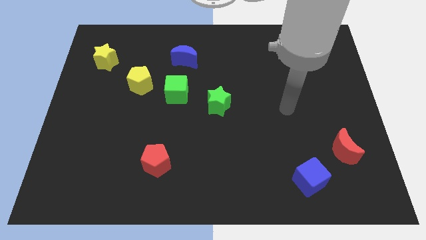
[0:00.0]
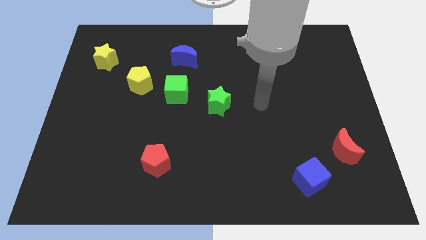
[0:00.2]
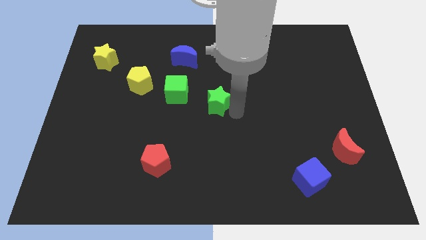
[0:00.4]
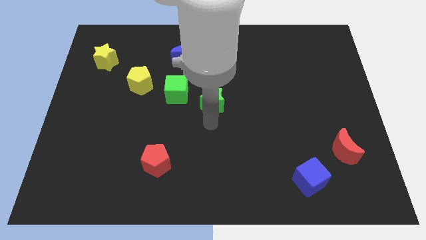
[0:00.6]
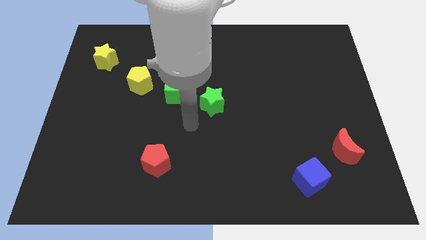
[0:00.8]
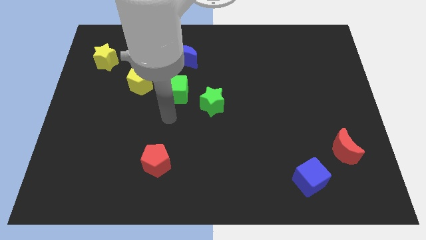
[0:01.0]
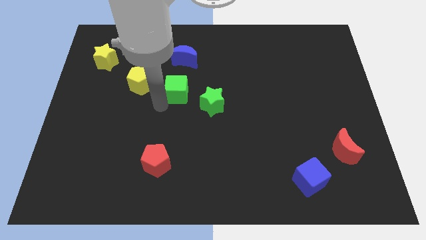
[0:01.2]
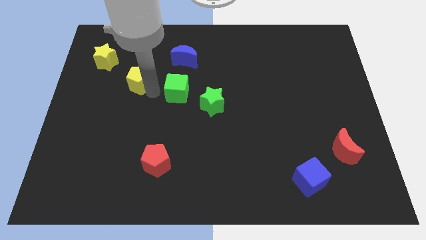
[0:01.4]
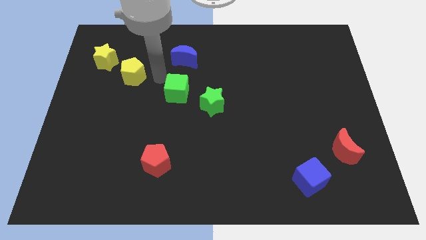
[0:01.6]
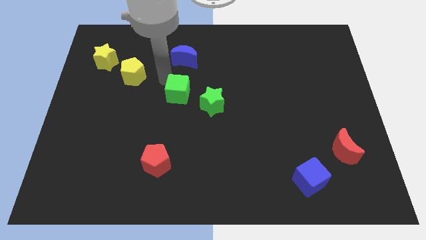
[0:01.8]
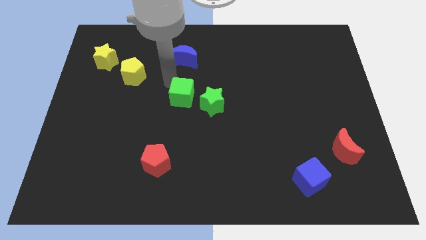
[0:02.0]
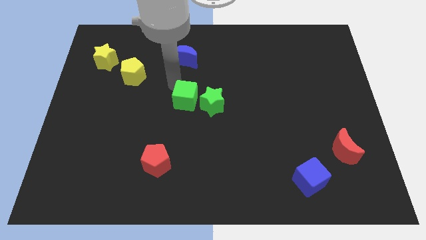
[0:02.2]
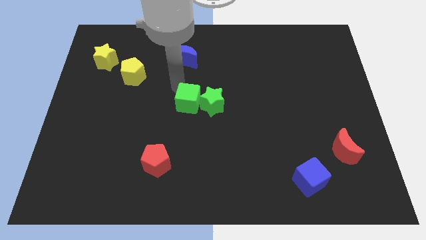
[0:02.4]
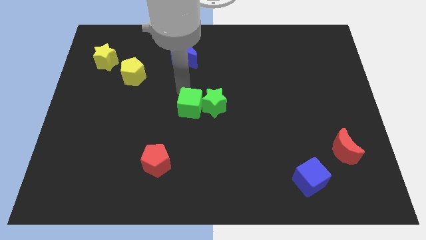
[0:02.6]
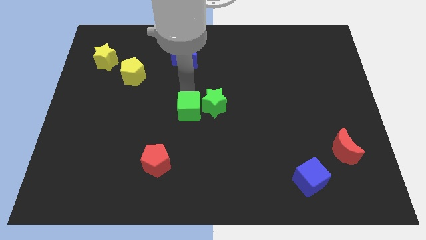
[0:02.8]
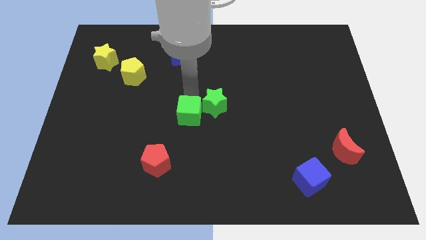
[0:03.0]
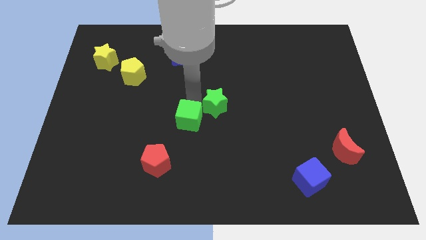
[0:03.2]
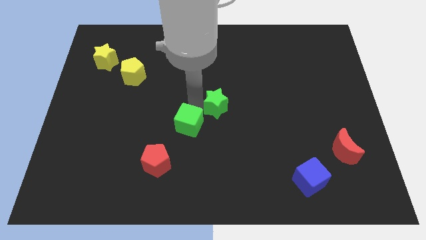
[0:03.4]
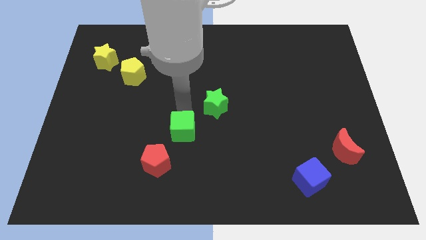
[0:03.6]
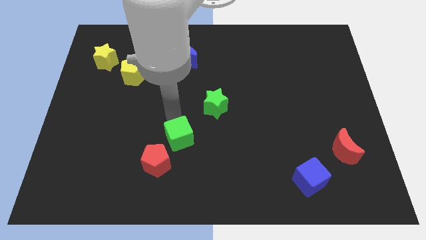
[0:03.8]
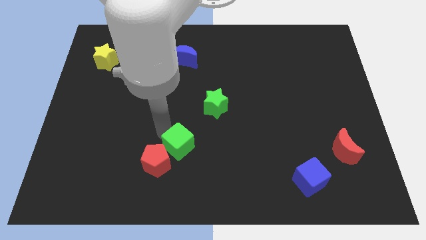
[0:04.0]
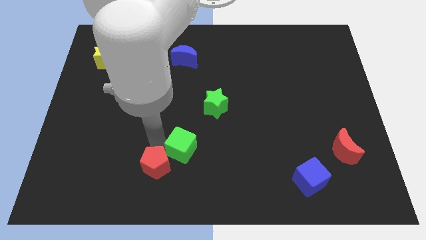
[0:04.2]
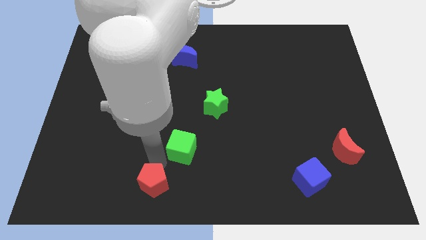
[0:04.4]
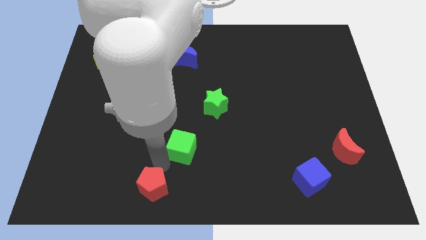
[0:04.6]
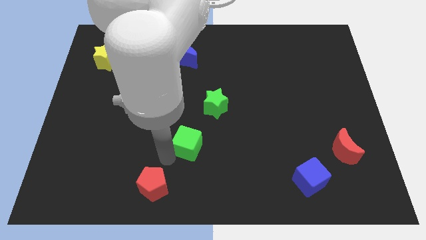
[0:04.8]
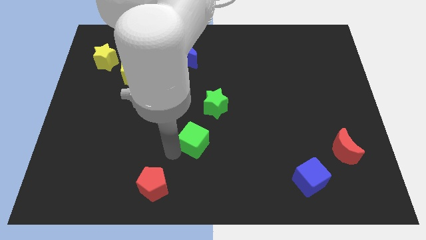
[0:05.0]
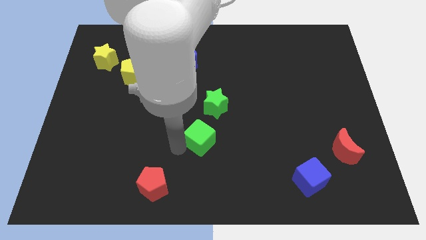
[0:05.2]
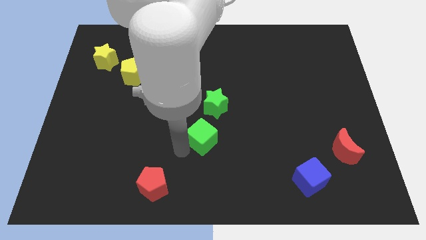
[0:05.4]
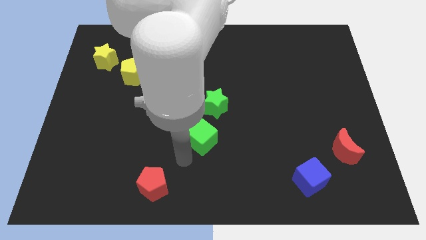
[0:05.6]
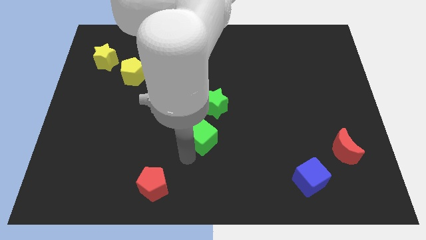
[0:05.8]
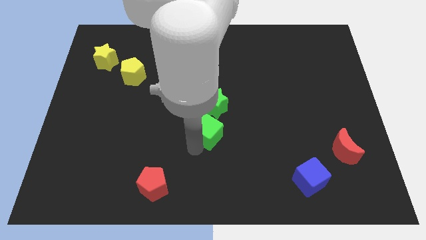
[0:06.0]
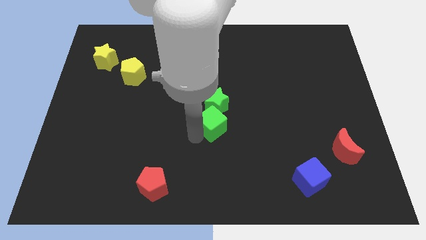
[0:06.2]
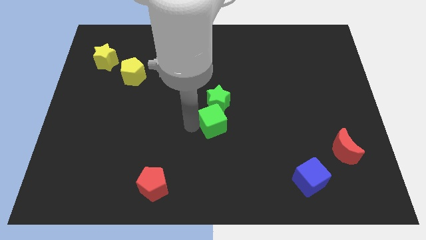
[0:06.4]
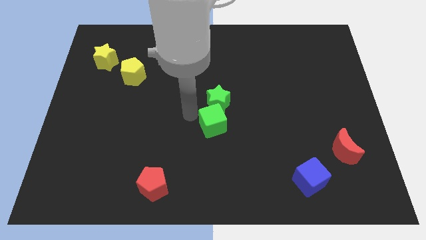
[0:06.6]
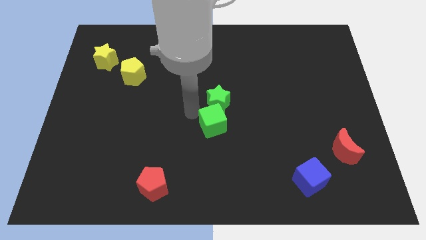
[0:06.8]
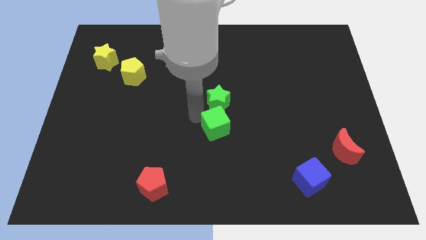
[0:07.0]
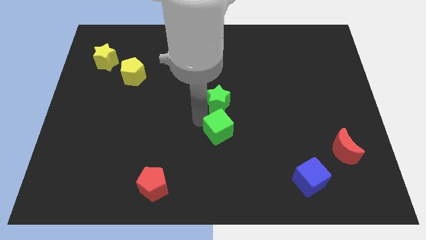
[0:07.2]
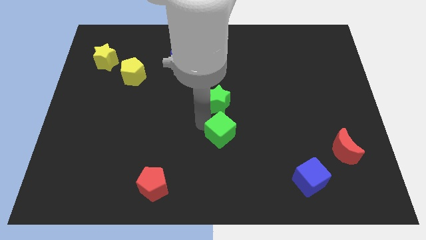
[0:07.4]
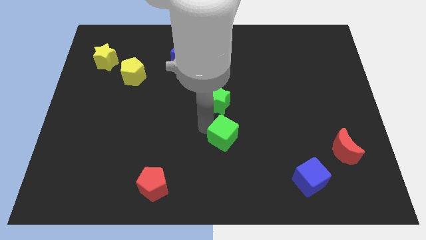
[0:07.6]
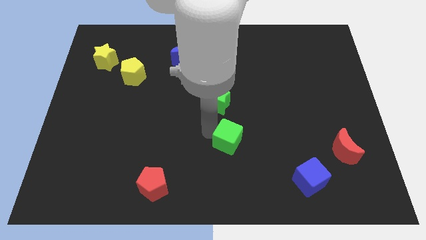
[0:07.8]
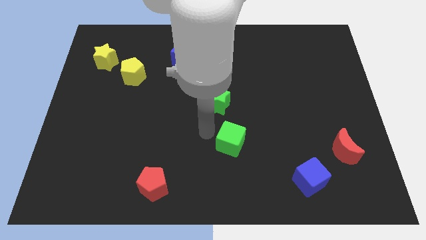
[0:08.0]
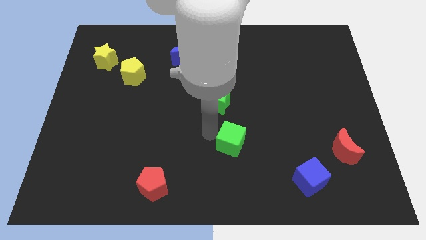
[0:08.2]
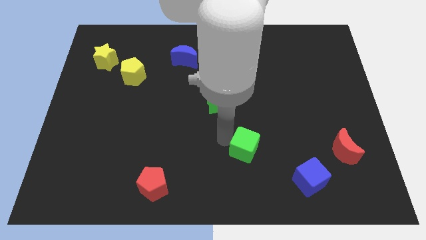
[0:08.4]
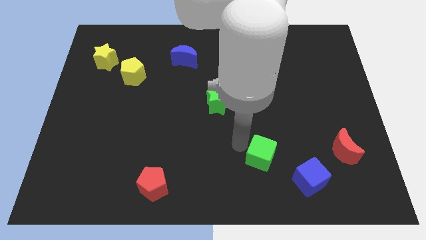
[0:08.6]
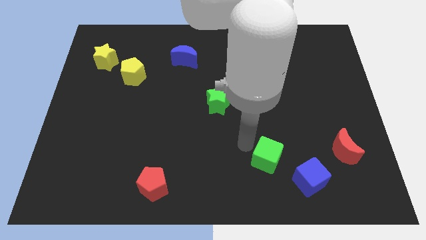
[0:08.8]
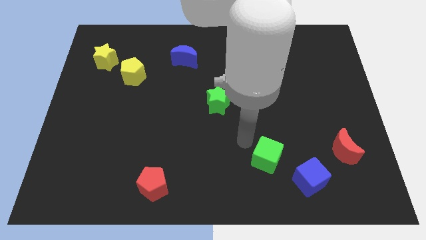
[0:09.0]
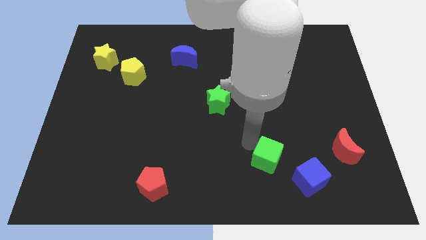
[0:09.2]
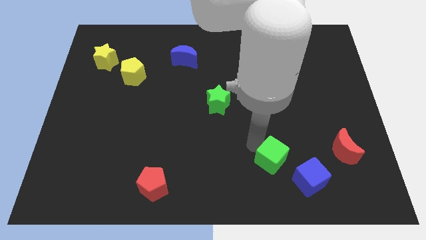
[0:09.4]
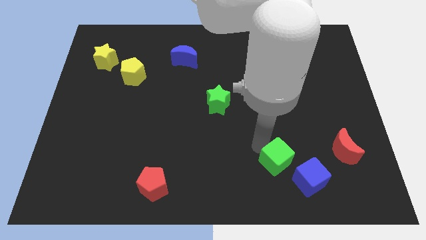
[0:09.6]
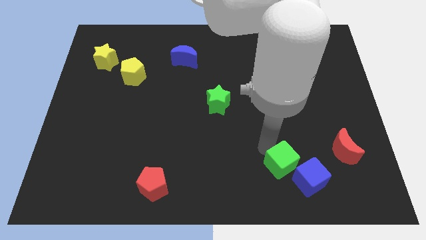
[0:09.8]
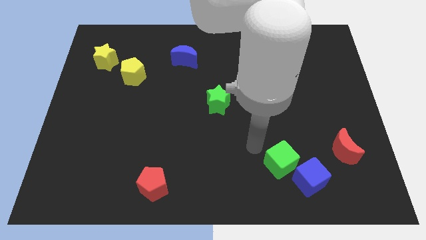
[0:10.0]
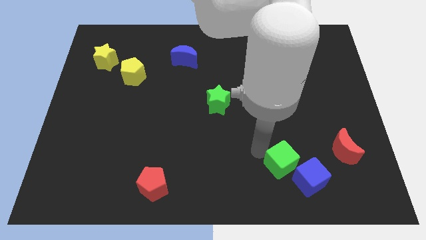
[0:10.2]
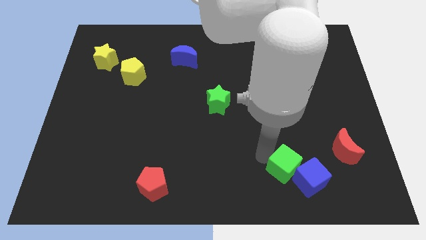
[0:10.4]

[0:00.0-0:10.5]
slide the green cube to the blue cube

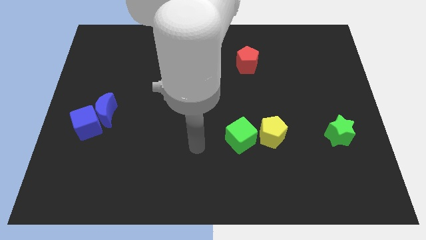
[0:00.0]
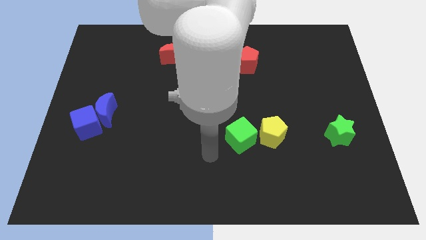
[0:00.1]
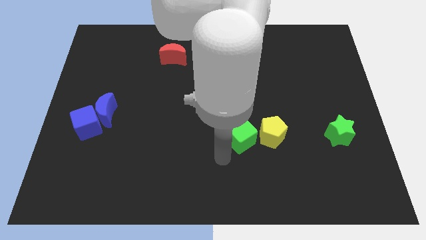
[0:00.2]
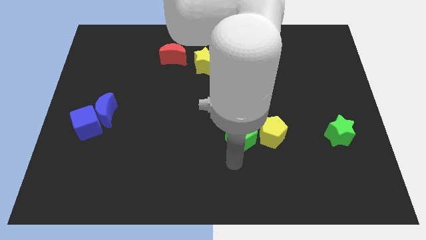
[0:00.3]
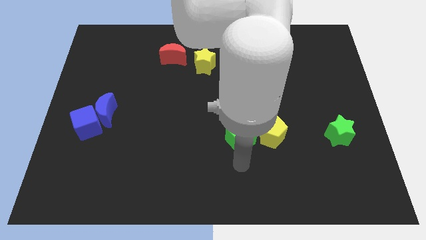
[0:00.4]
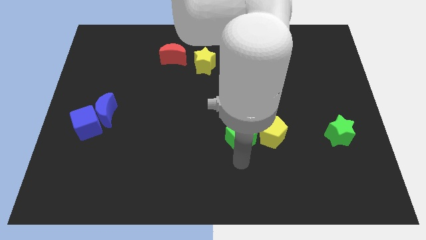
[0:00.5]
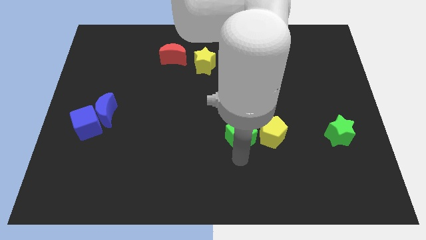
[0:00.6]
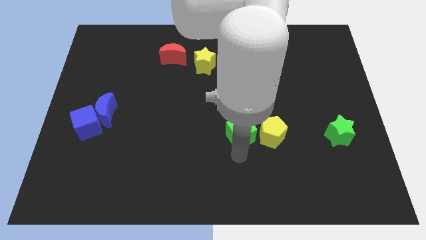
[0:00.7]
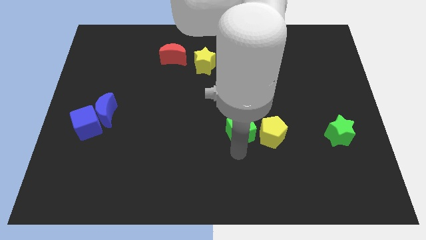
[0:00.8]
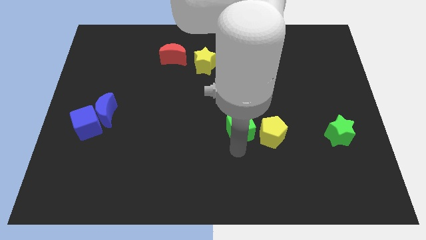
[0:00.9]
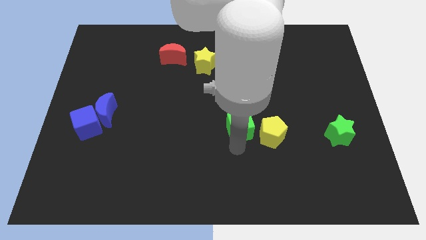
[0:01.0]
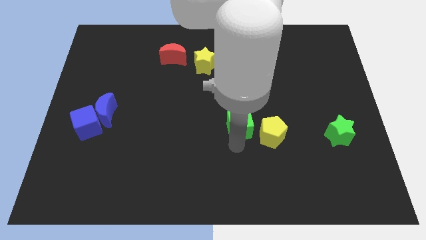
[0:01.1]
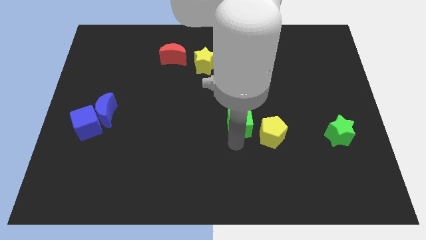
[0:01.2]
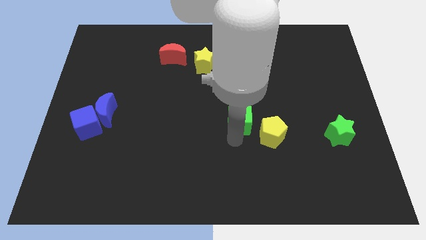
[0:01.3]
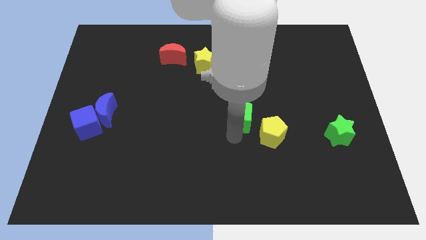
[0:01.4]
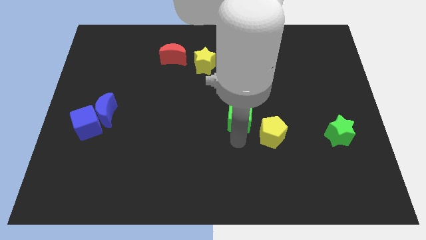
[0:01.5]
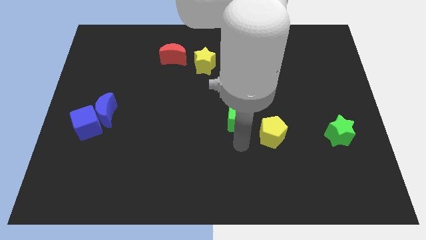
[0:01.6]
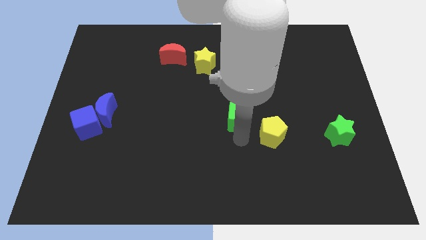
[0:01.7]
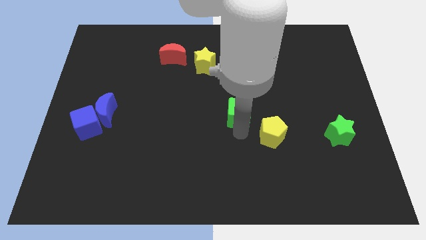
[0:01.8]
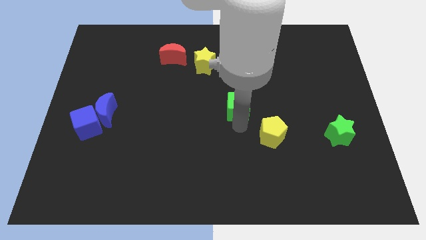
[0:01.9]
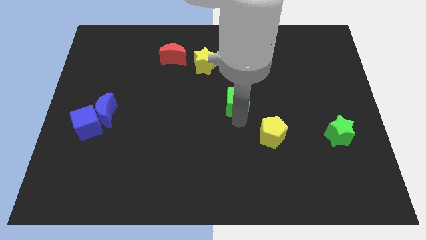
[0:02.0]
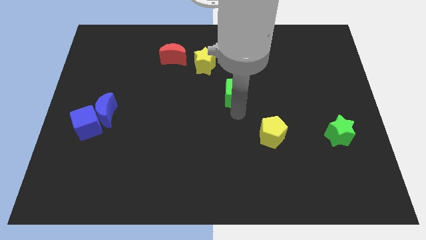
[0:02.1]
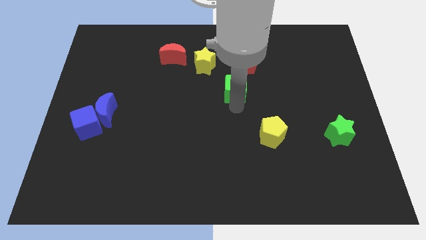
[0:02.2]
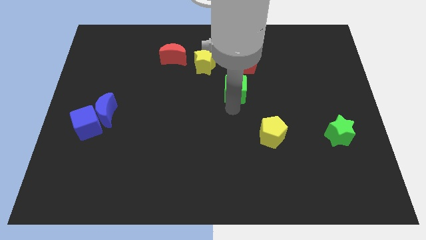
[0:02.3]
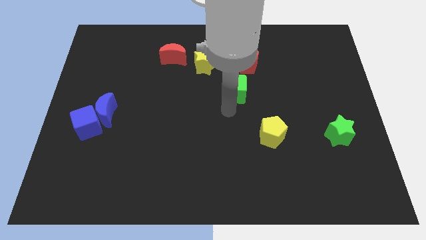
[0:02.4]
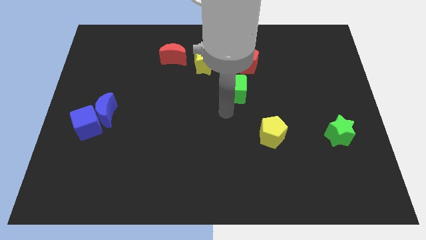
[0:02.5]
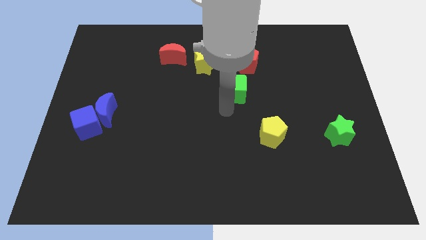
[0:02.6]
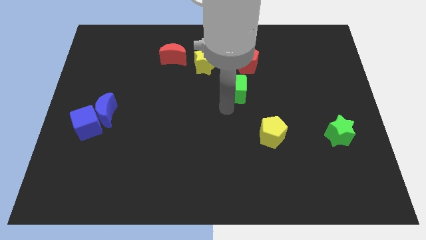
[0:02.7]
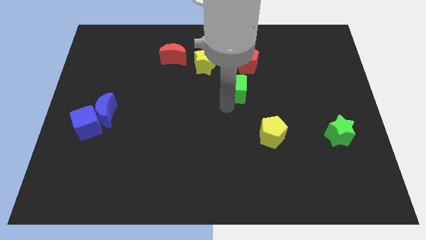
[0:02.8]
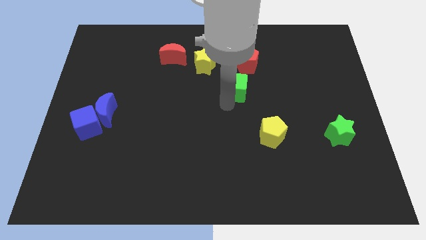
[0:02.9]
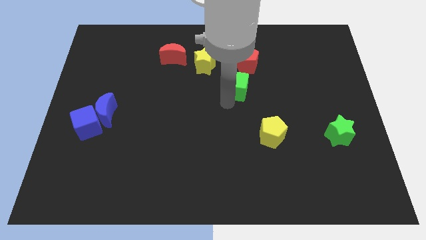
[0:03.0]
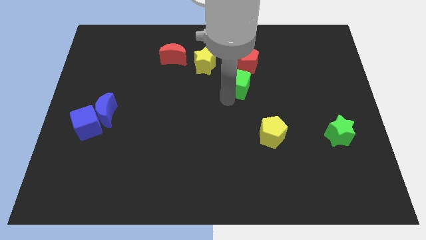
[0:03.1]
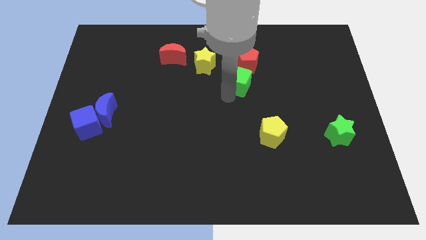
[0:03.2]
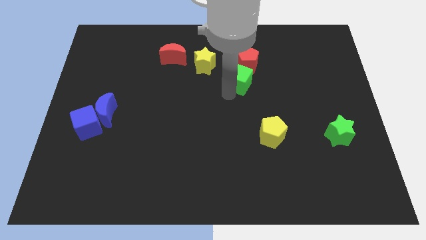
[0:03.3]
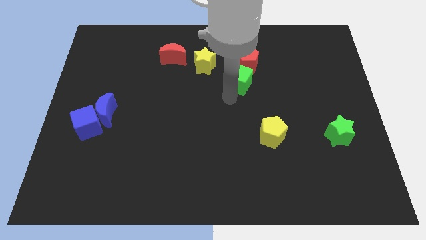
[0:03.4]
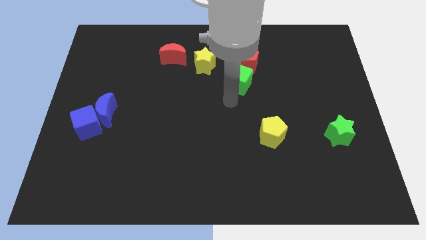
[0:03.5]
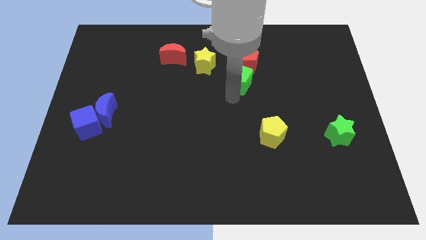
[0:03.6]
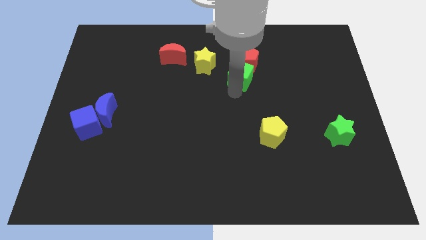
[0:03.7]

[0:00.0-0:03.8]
move the green cube to the red pentagon
